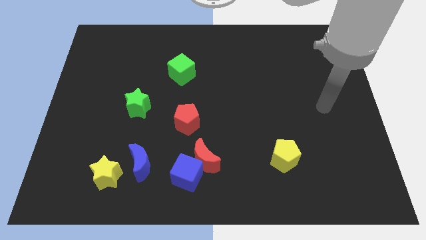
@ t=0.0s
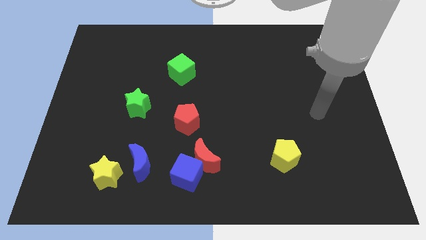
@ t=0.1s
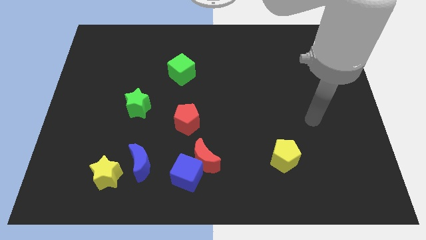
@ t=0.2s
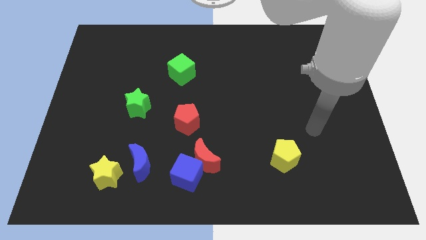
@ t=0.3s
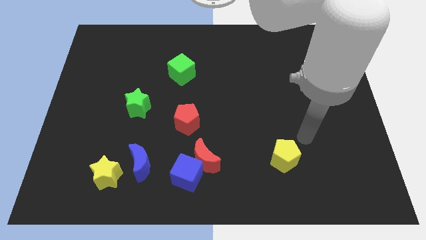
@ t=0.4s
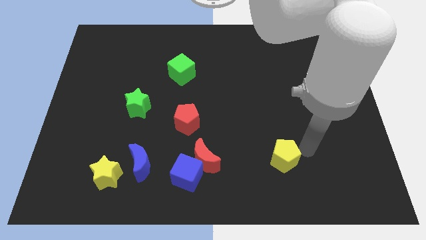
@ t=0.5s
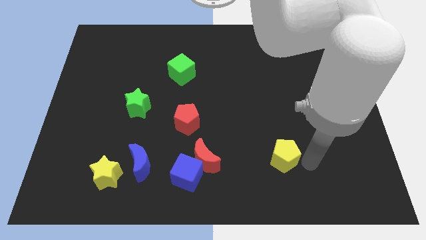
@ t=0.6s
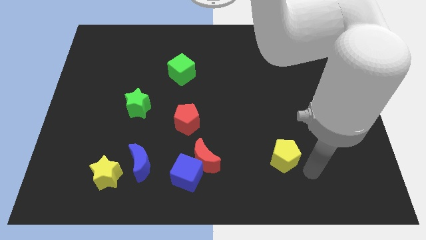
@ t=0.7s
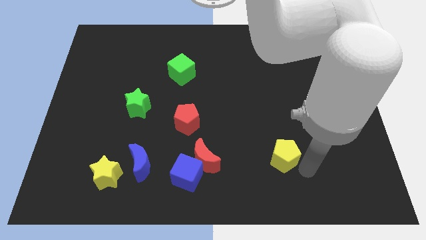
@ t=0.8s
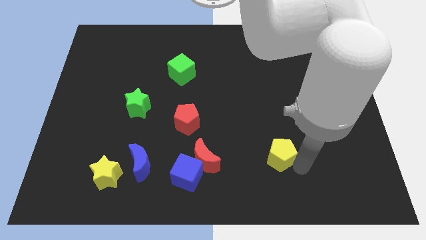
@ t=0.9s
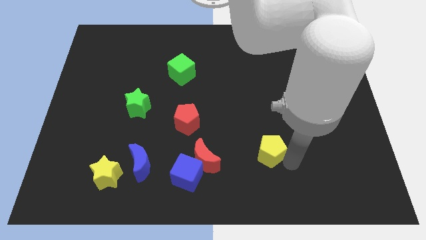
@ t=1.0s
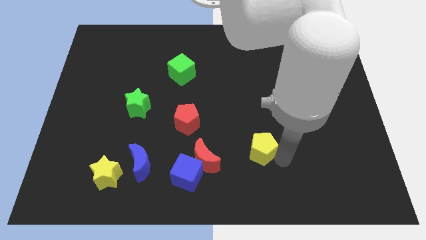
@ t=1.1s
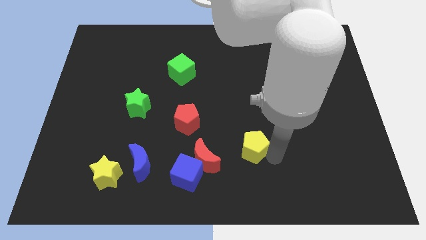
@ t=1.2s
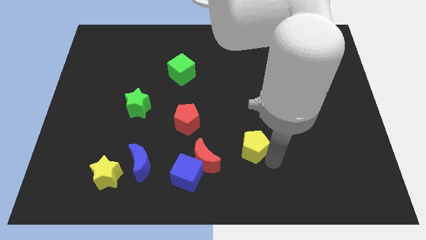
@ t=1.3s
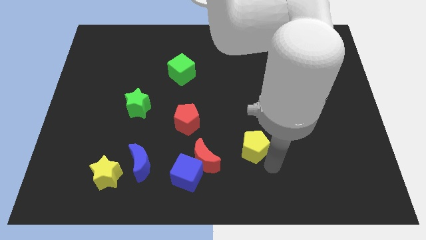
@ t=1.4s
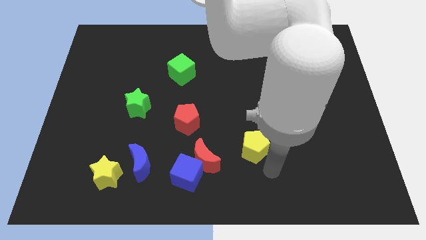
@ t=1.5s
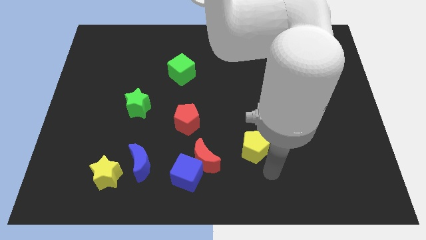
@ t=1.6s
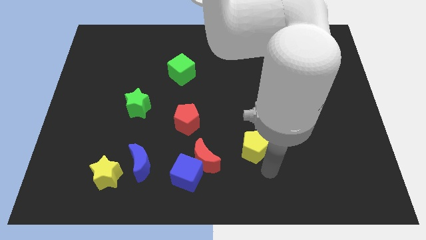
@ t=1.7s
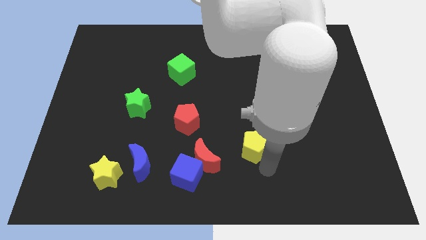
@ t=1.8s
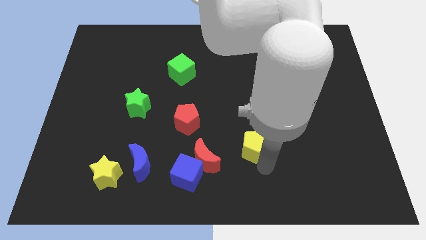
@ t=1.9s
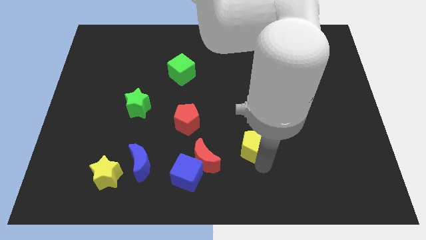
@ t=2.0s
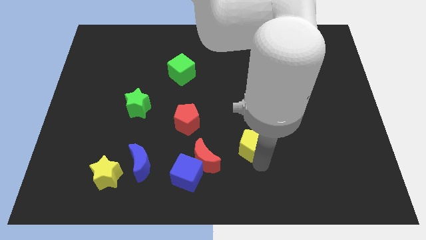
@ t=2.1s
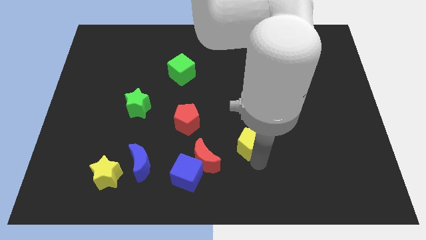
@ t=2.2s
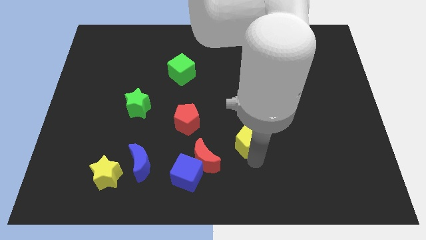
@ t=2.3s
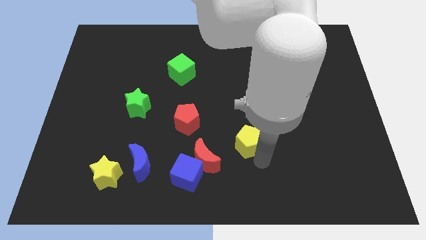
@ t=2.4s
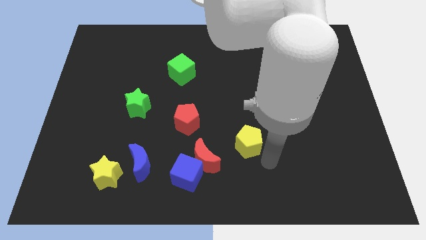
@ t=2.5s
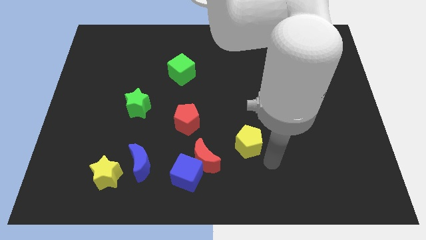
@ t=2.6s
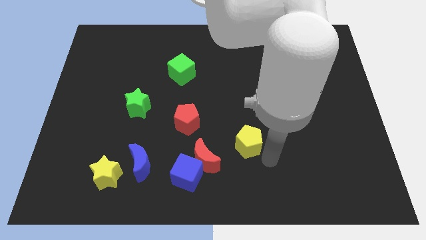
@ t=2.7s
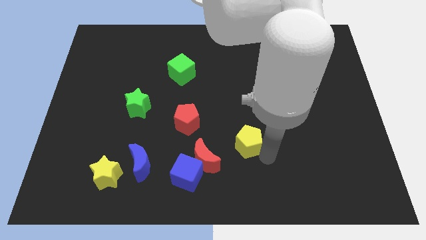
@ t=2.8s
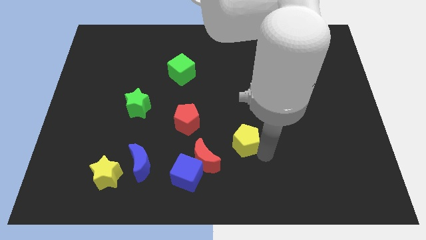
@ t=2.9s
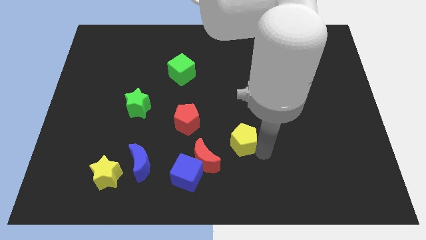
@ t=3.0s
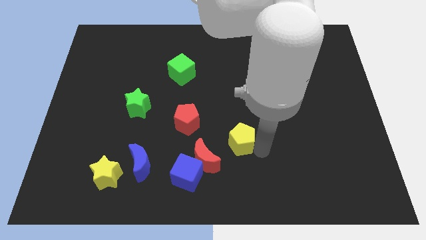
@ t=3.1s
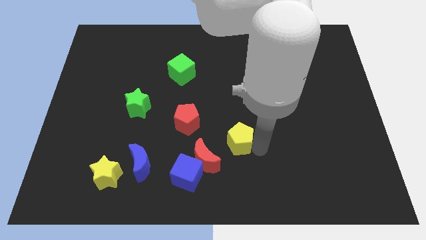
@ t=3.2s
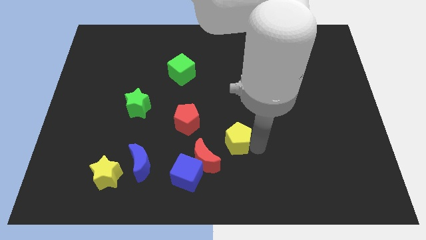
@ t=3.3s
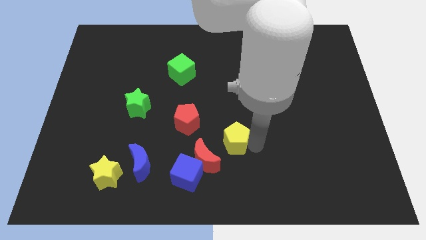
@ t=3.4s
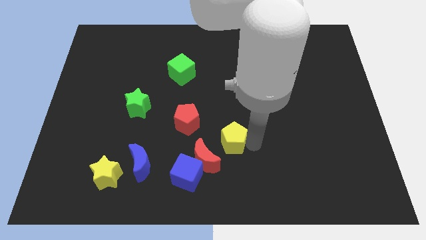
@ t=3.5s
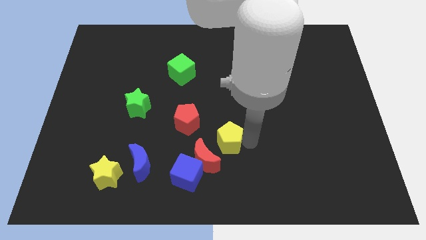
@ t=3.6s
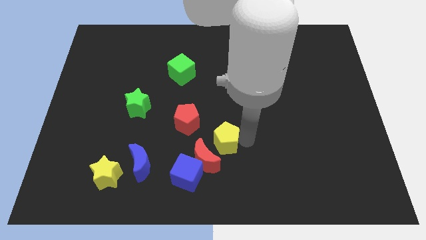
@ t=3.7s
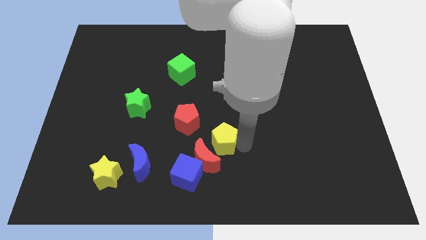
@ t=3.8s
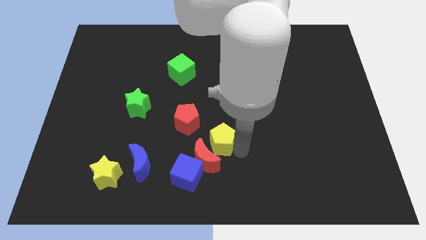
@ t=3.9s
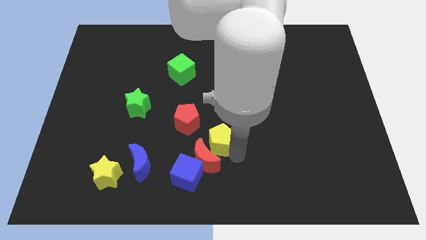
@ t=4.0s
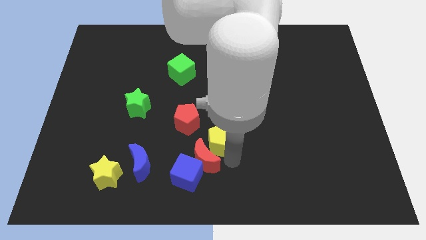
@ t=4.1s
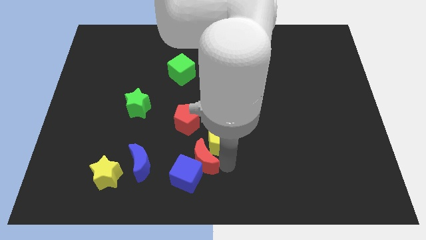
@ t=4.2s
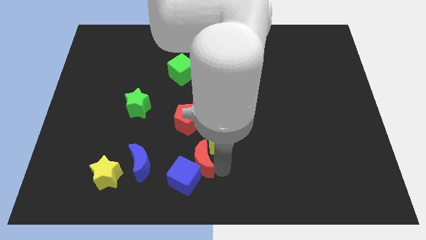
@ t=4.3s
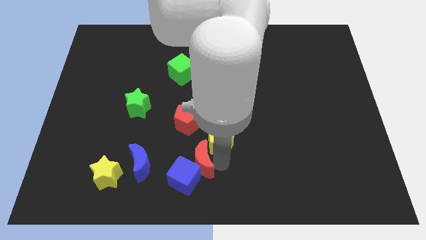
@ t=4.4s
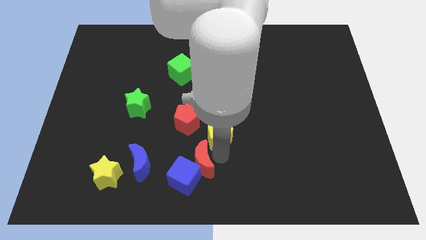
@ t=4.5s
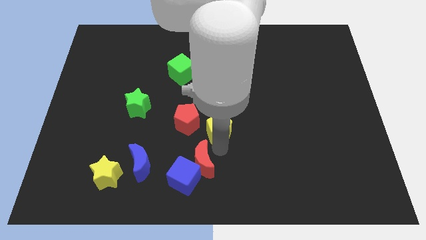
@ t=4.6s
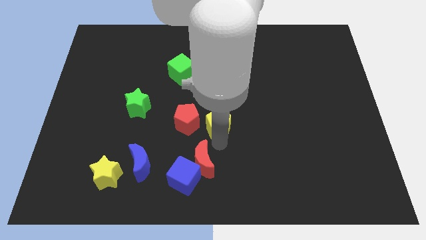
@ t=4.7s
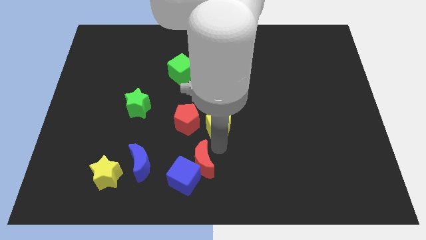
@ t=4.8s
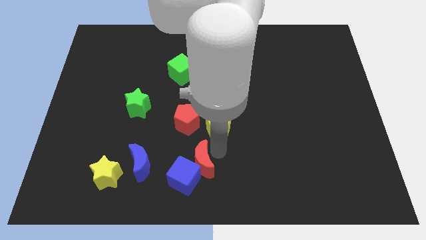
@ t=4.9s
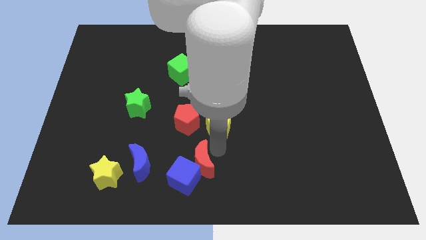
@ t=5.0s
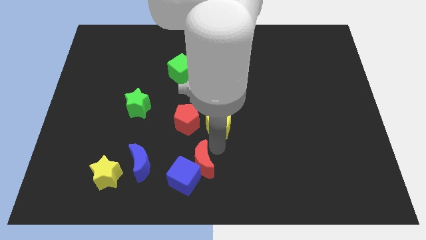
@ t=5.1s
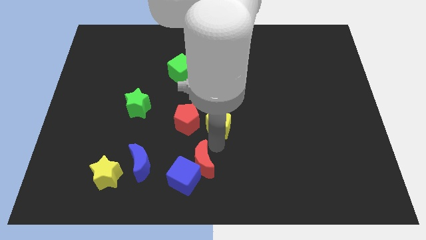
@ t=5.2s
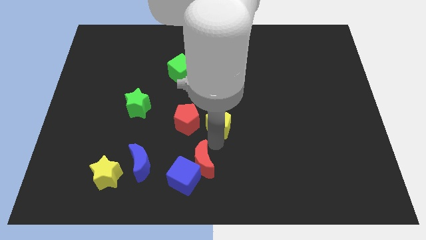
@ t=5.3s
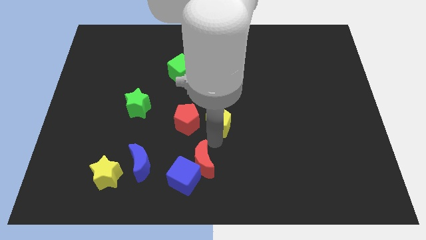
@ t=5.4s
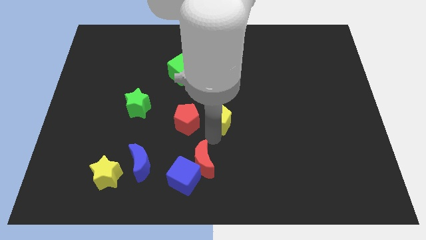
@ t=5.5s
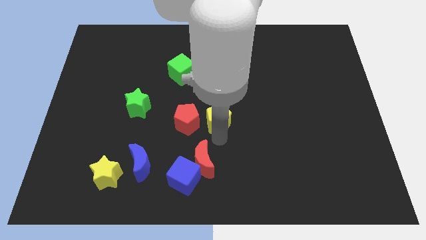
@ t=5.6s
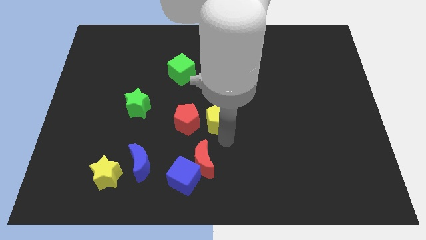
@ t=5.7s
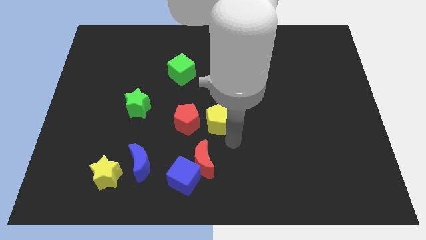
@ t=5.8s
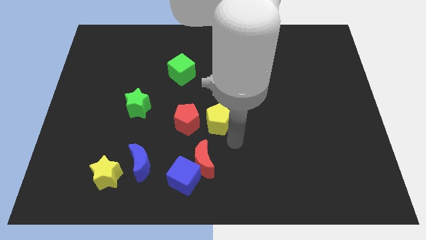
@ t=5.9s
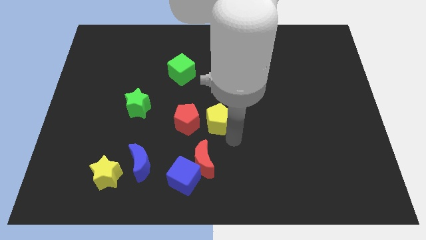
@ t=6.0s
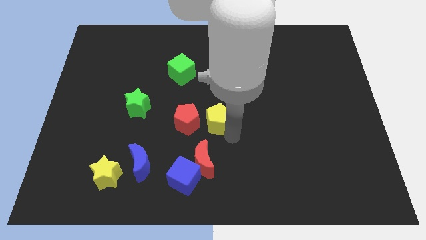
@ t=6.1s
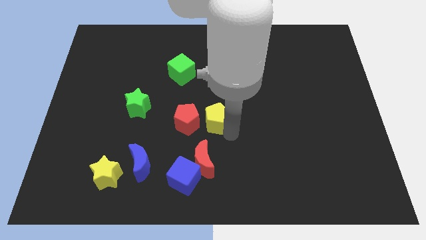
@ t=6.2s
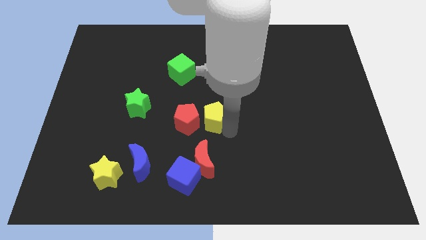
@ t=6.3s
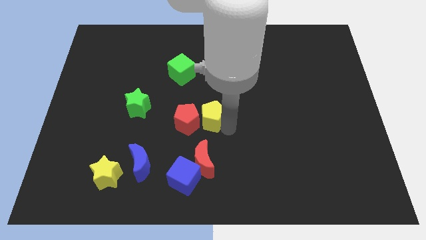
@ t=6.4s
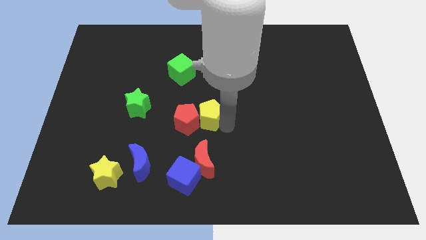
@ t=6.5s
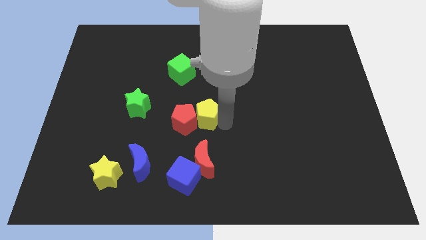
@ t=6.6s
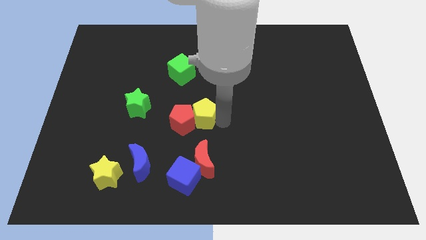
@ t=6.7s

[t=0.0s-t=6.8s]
put the yellow pentagon just right of the green star
